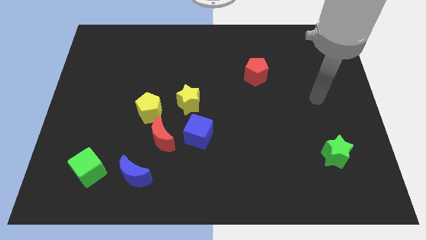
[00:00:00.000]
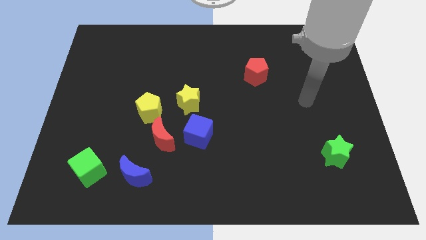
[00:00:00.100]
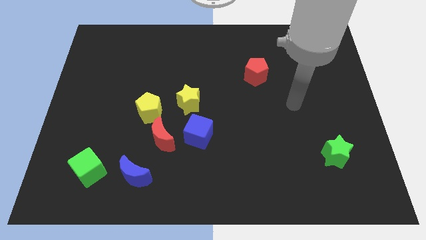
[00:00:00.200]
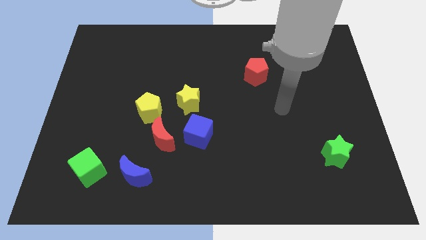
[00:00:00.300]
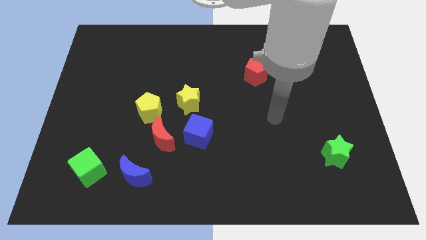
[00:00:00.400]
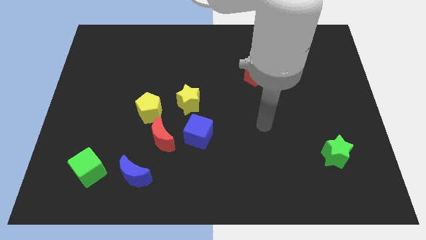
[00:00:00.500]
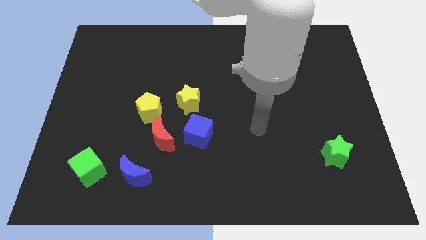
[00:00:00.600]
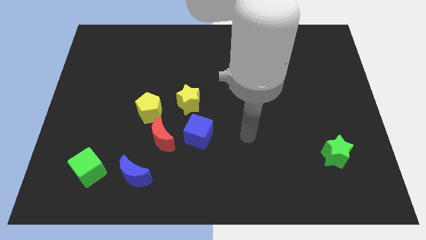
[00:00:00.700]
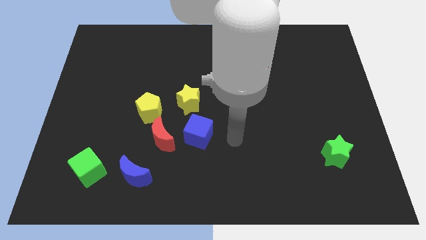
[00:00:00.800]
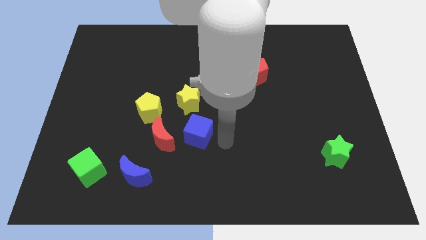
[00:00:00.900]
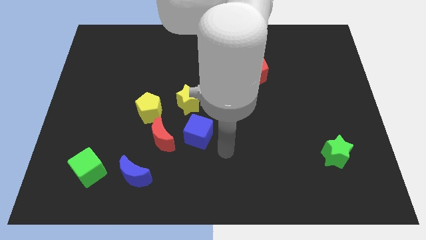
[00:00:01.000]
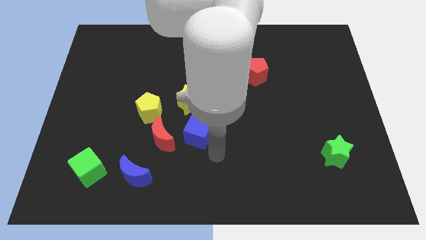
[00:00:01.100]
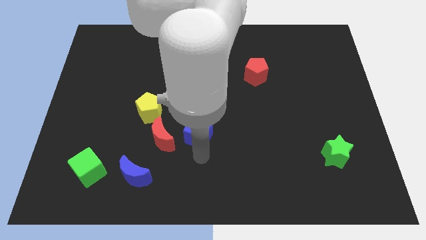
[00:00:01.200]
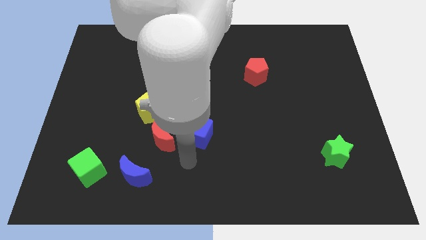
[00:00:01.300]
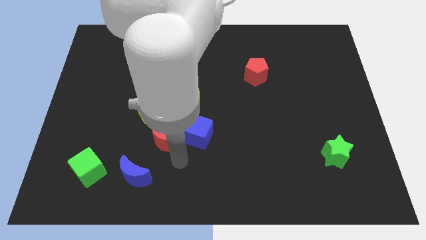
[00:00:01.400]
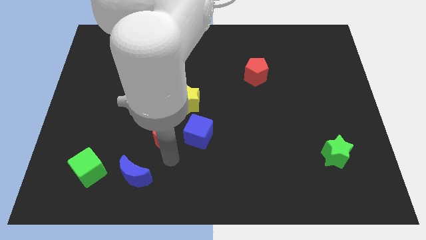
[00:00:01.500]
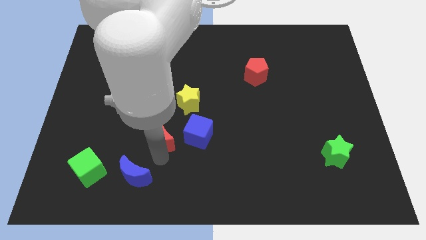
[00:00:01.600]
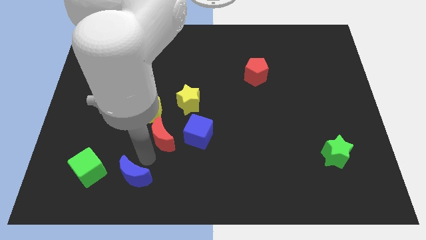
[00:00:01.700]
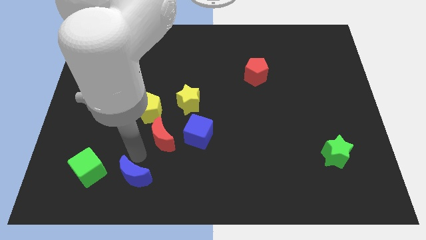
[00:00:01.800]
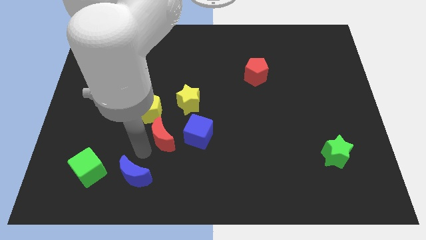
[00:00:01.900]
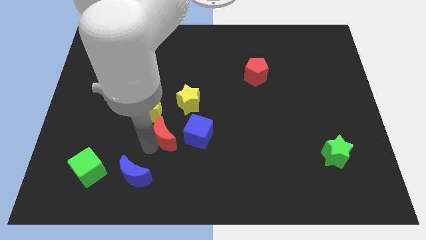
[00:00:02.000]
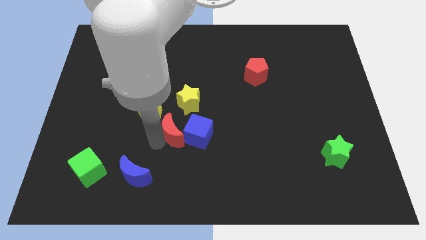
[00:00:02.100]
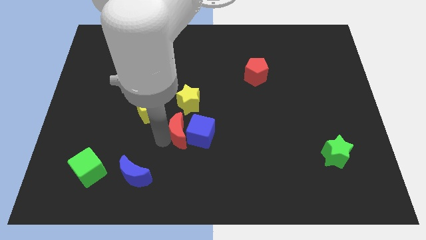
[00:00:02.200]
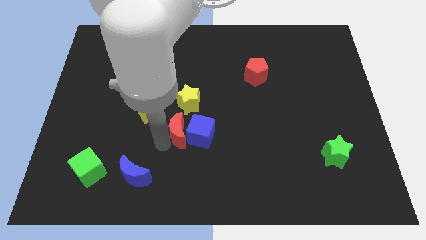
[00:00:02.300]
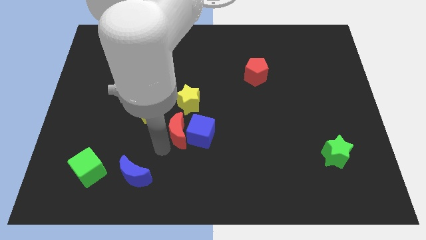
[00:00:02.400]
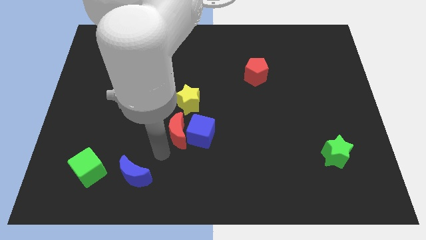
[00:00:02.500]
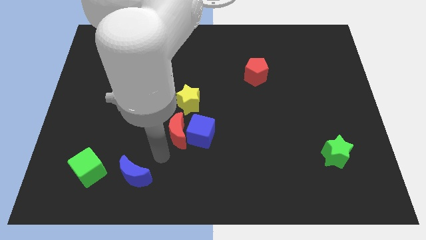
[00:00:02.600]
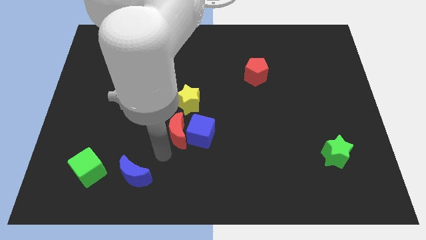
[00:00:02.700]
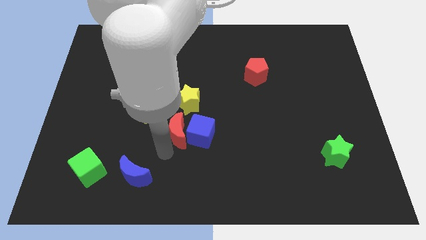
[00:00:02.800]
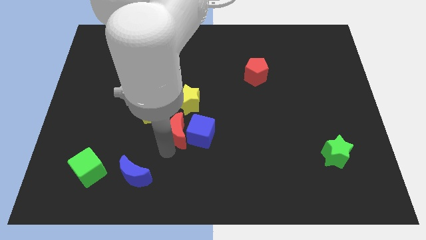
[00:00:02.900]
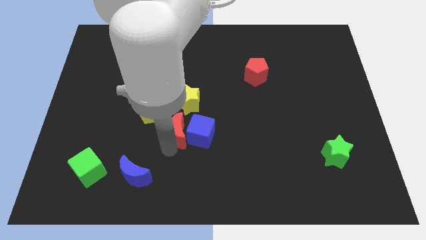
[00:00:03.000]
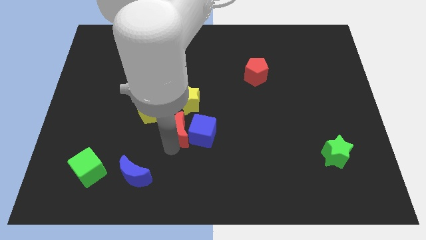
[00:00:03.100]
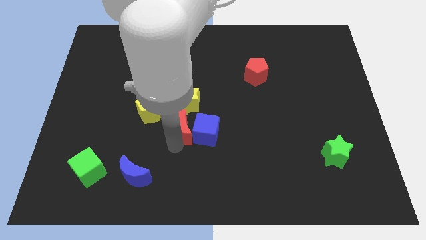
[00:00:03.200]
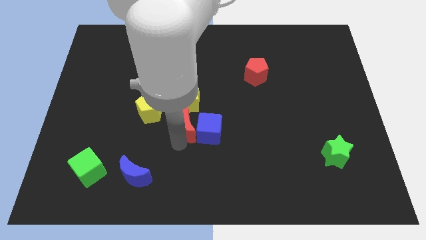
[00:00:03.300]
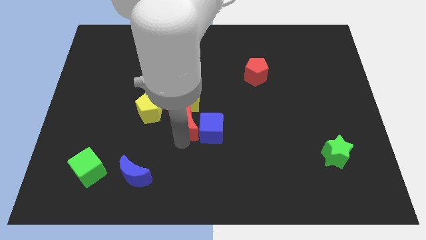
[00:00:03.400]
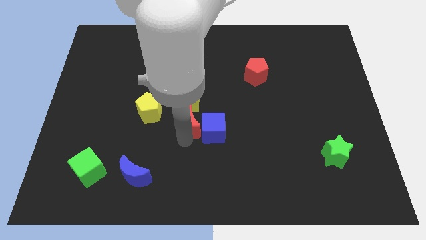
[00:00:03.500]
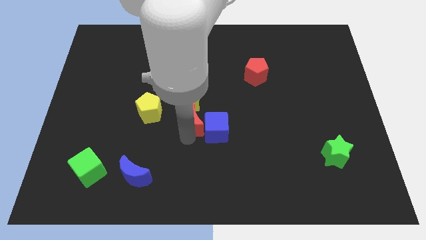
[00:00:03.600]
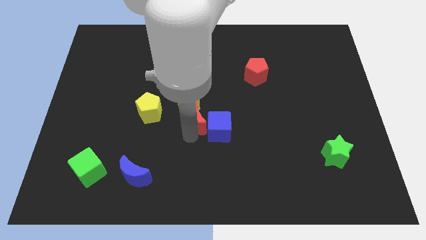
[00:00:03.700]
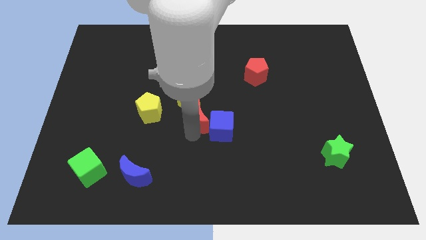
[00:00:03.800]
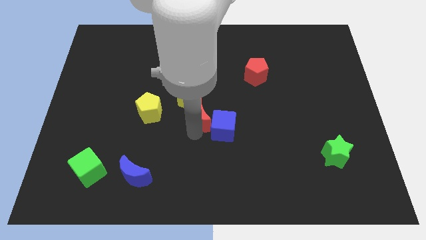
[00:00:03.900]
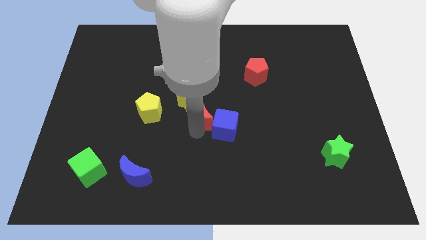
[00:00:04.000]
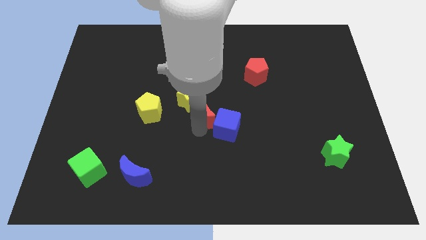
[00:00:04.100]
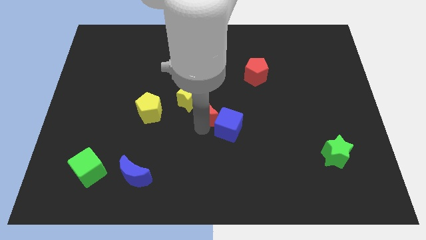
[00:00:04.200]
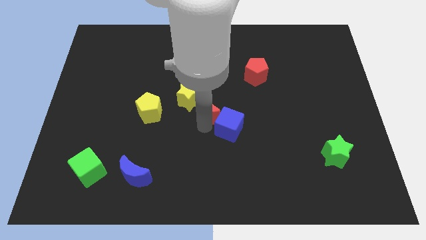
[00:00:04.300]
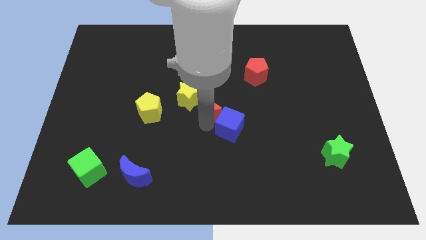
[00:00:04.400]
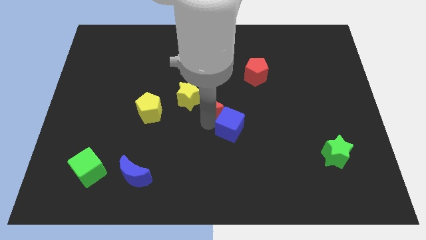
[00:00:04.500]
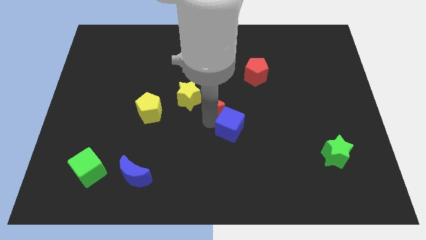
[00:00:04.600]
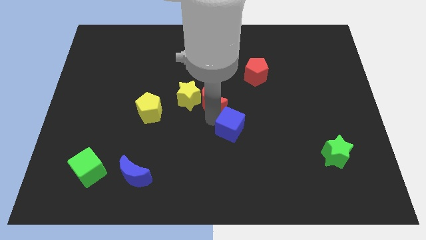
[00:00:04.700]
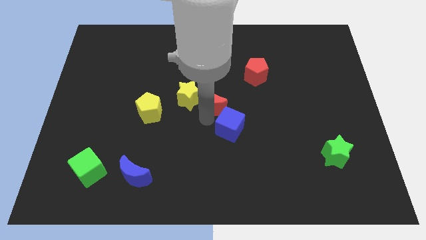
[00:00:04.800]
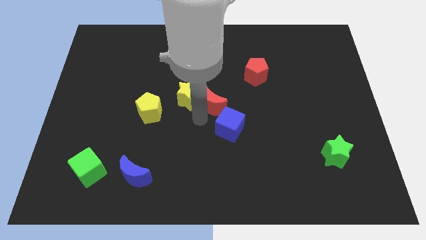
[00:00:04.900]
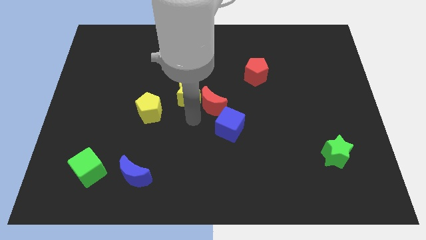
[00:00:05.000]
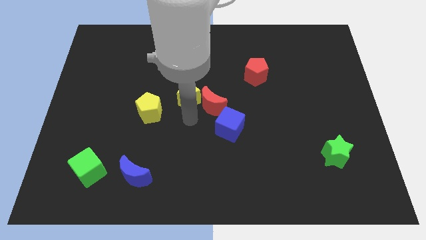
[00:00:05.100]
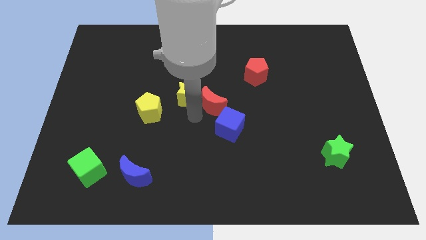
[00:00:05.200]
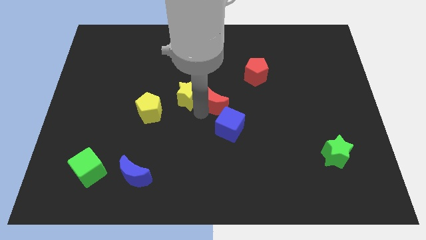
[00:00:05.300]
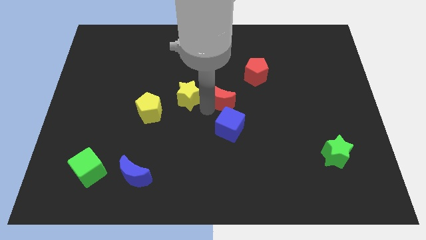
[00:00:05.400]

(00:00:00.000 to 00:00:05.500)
put the red moon to the bottom left side of the red pentagon

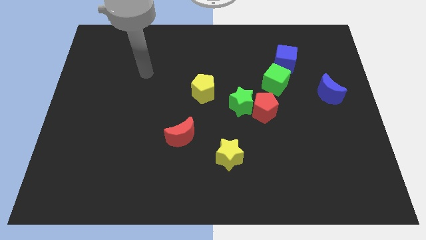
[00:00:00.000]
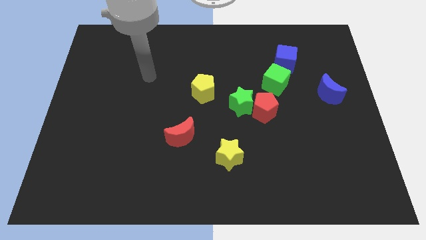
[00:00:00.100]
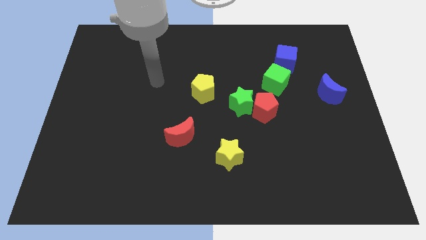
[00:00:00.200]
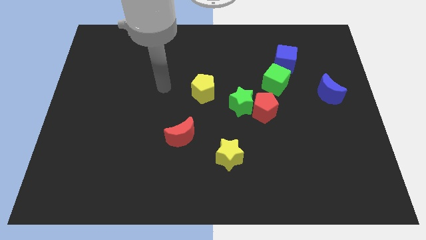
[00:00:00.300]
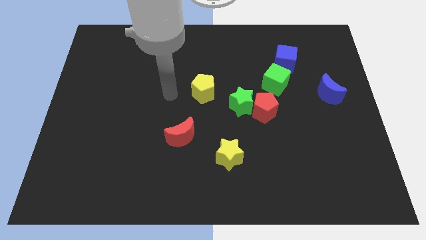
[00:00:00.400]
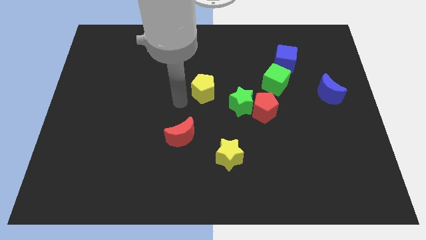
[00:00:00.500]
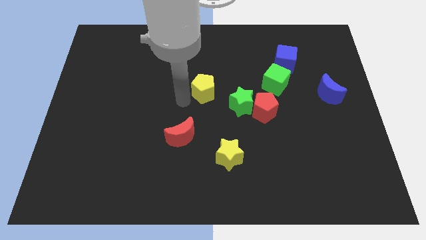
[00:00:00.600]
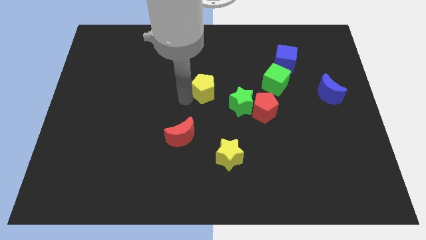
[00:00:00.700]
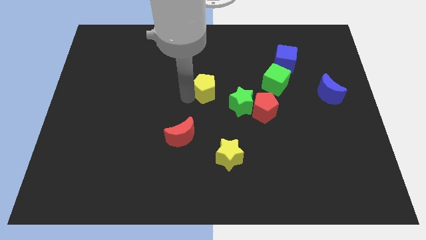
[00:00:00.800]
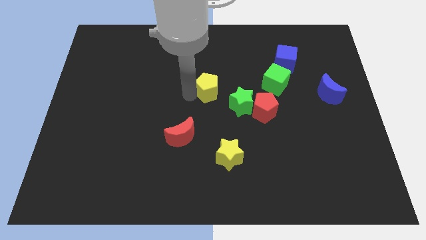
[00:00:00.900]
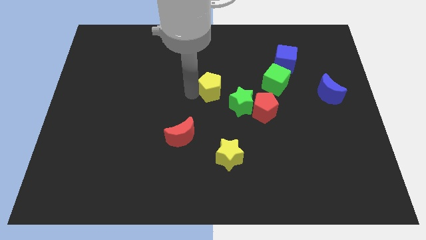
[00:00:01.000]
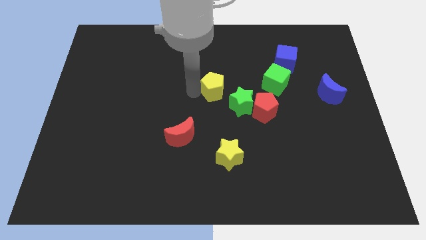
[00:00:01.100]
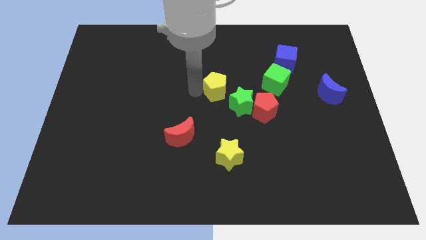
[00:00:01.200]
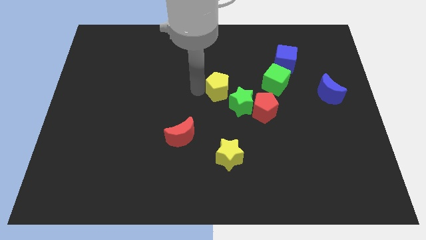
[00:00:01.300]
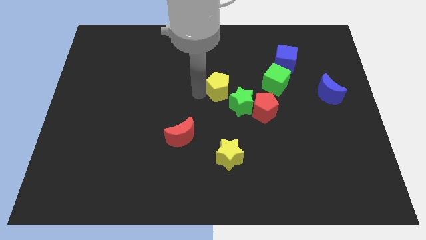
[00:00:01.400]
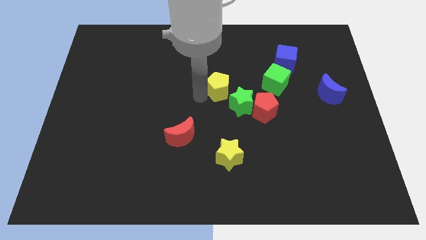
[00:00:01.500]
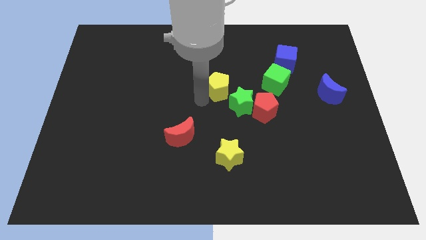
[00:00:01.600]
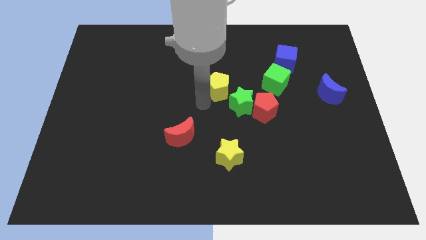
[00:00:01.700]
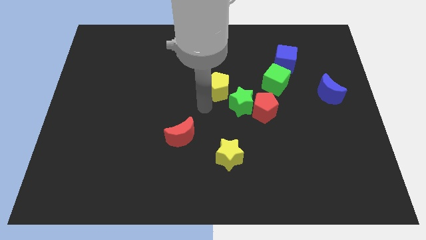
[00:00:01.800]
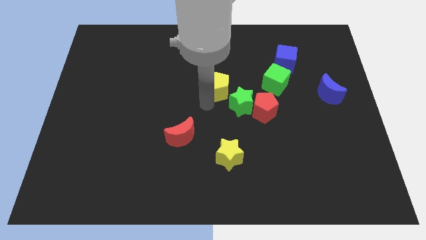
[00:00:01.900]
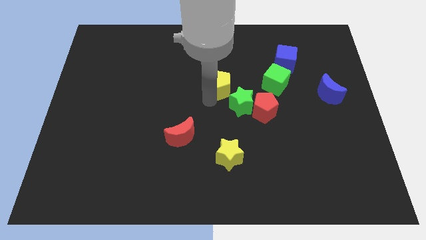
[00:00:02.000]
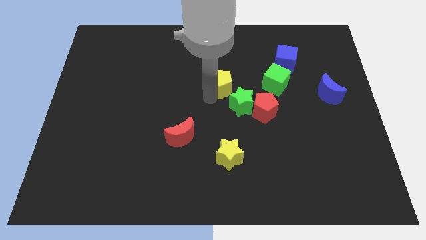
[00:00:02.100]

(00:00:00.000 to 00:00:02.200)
put the yellow pentagon to the top of the green star
